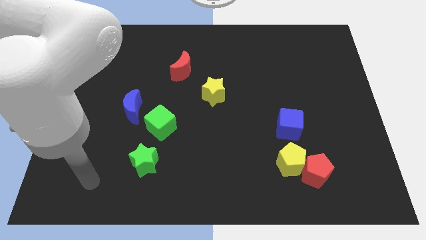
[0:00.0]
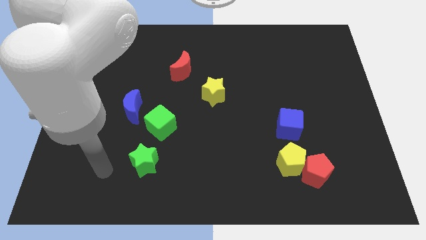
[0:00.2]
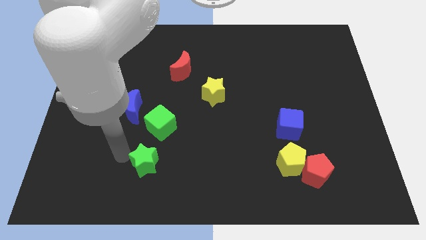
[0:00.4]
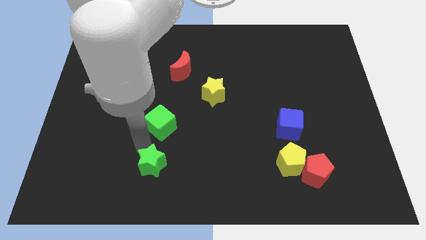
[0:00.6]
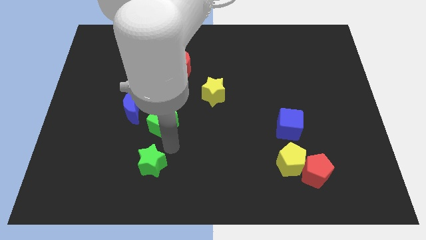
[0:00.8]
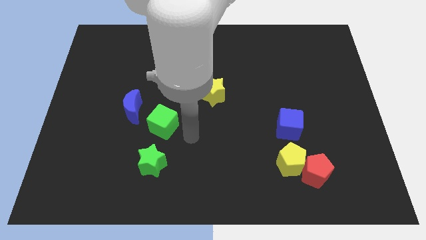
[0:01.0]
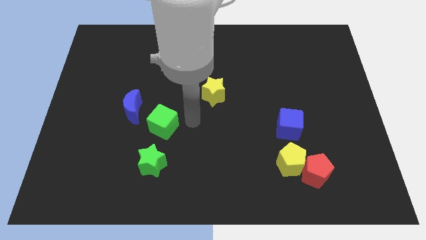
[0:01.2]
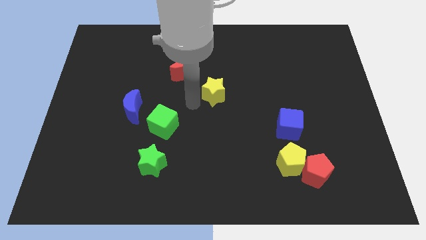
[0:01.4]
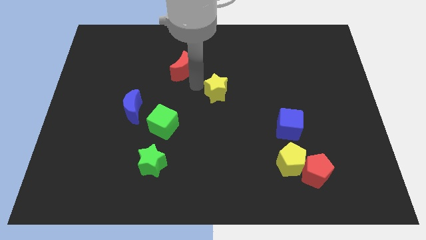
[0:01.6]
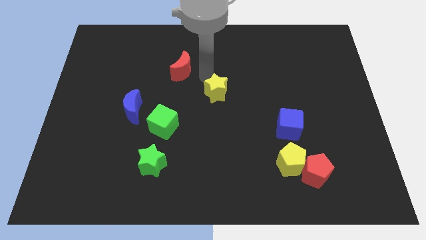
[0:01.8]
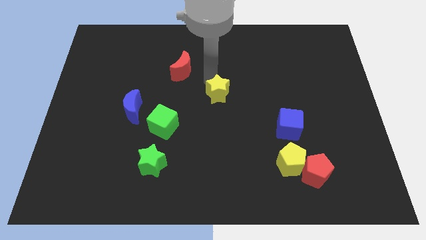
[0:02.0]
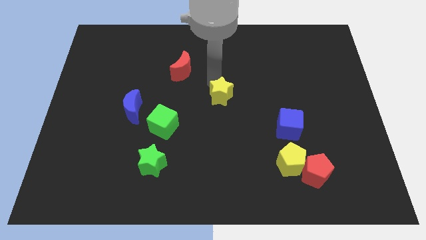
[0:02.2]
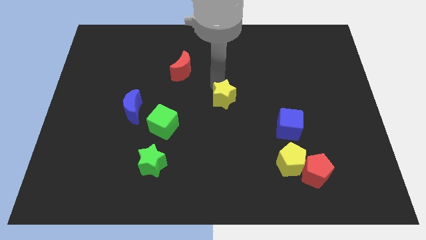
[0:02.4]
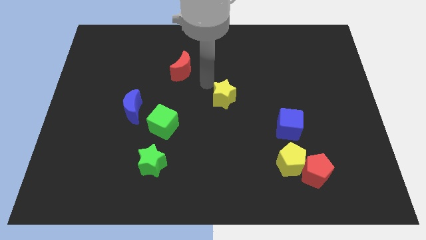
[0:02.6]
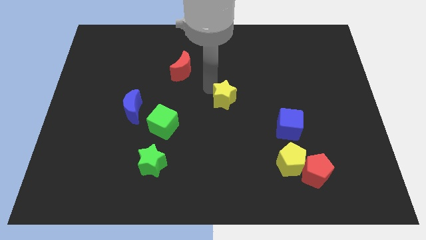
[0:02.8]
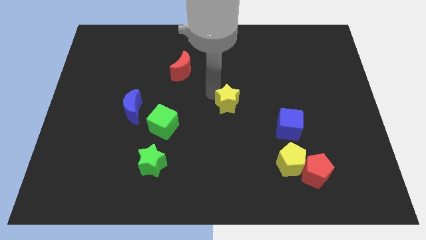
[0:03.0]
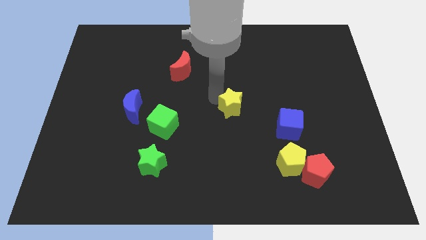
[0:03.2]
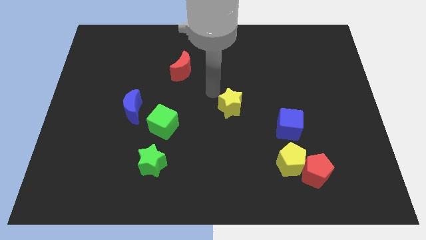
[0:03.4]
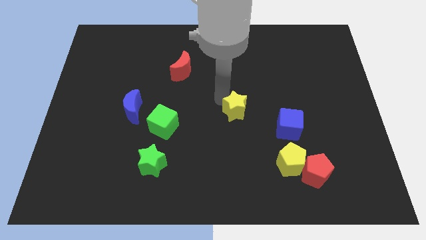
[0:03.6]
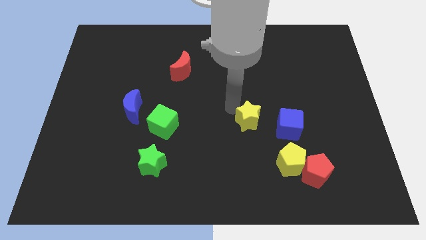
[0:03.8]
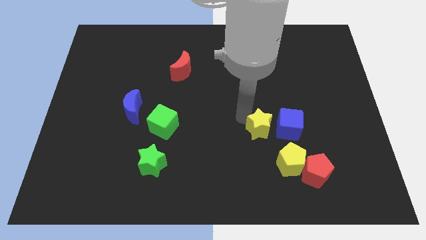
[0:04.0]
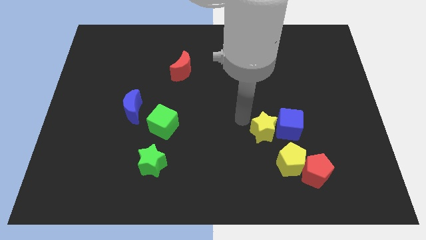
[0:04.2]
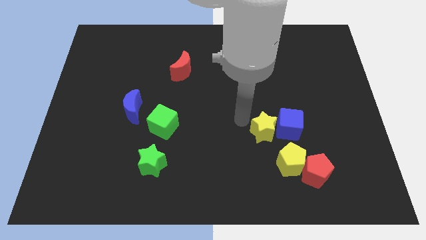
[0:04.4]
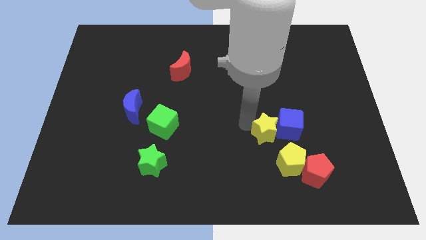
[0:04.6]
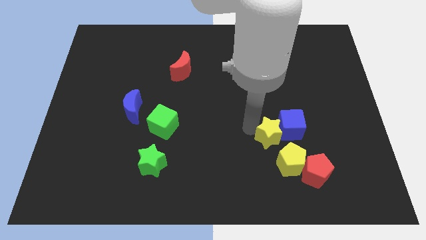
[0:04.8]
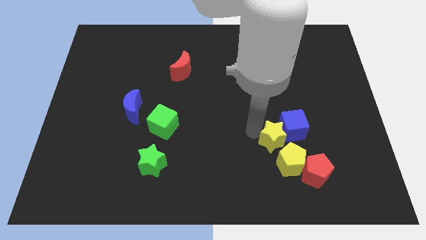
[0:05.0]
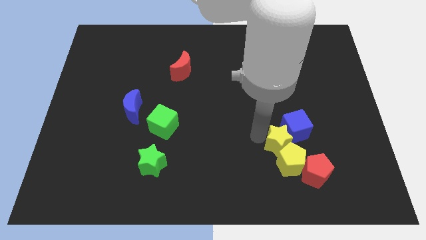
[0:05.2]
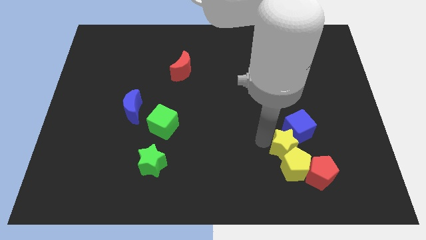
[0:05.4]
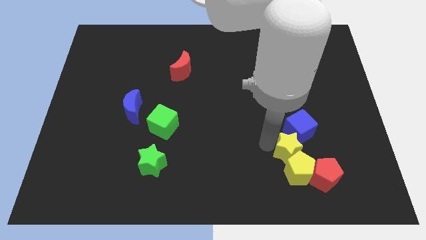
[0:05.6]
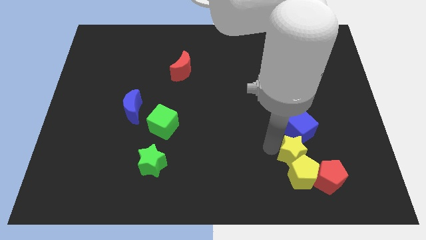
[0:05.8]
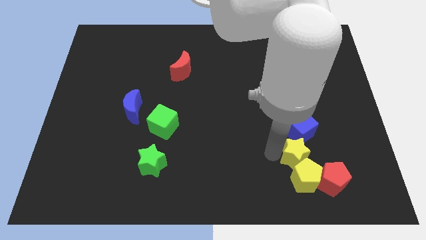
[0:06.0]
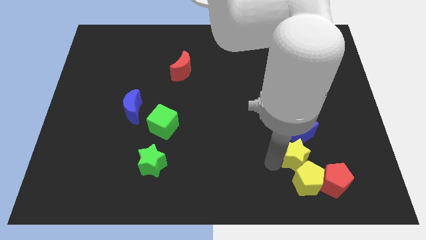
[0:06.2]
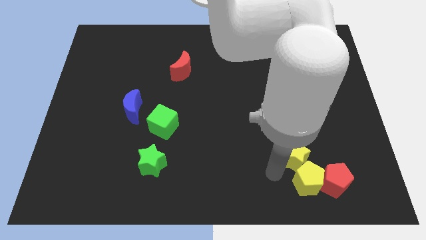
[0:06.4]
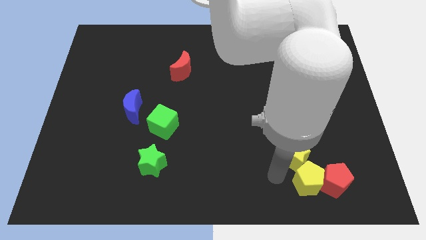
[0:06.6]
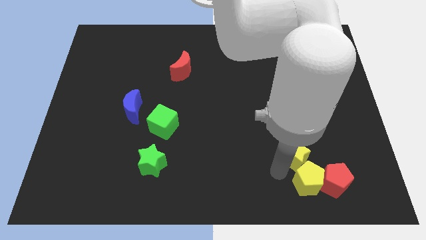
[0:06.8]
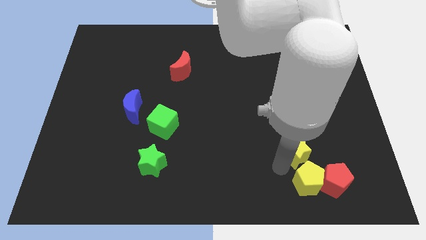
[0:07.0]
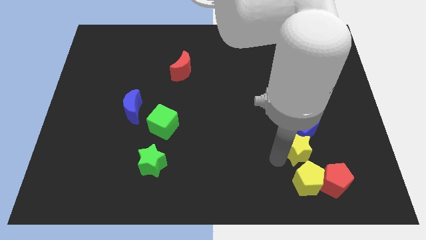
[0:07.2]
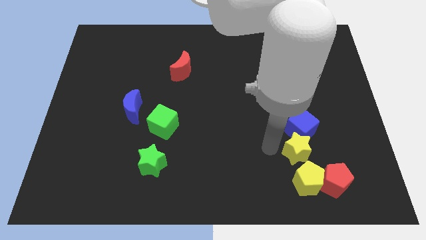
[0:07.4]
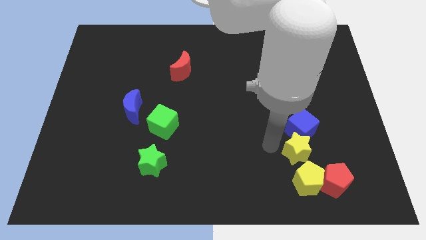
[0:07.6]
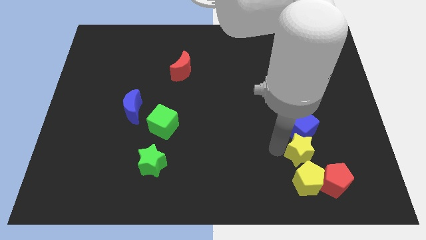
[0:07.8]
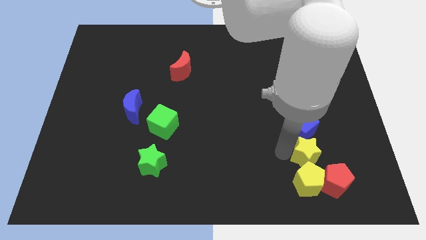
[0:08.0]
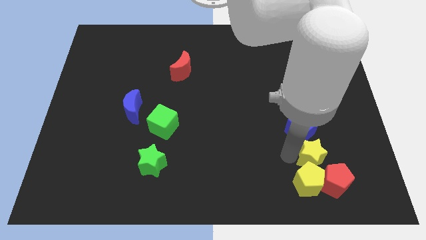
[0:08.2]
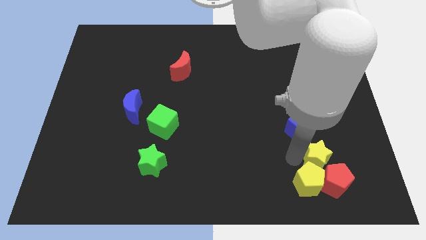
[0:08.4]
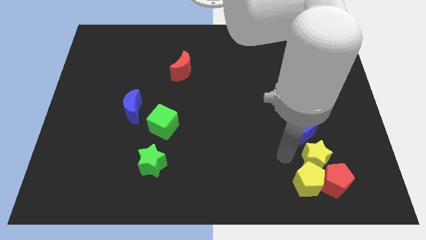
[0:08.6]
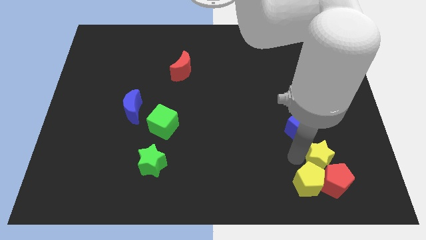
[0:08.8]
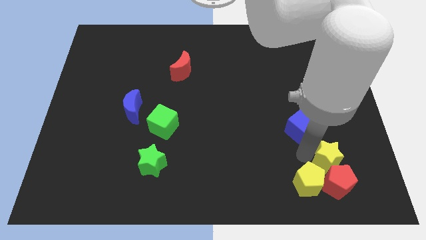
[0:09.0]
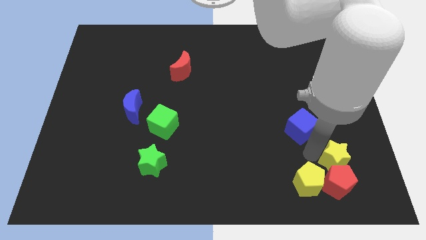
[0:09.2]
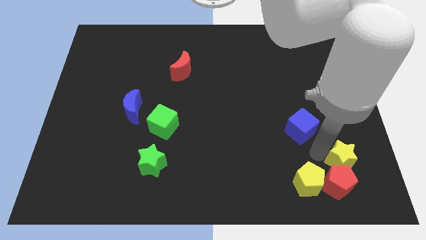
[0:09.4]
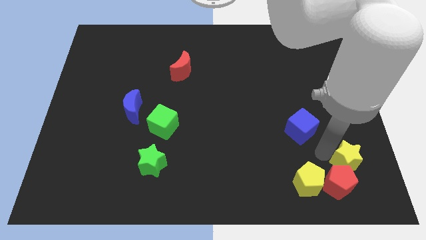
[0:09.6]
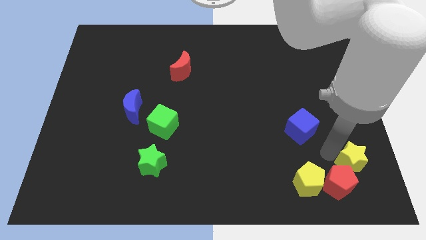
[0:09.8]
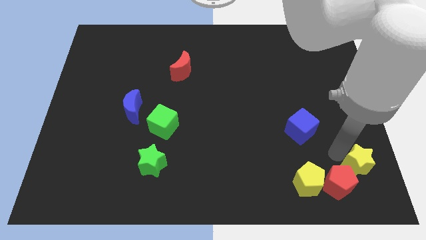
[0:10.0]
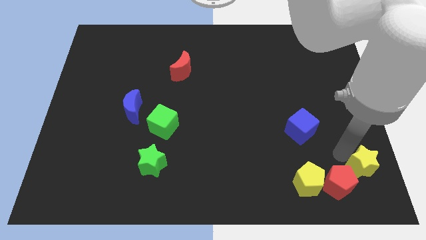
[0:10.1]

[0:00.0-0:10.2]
push the yellow star to the bottom right corner

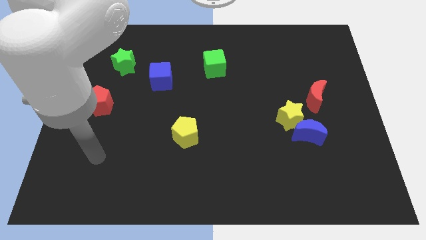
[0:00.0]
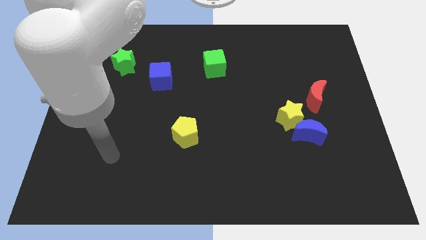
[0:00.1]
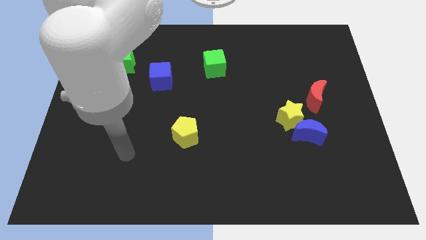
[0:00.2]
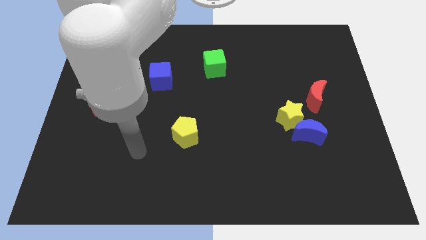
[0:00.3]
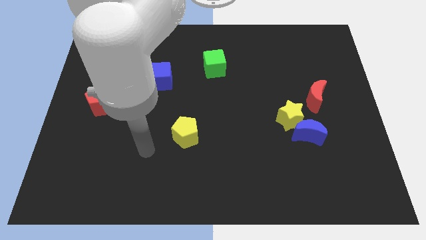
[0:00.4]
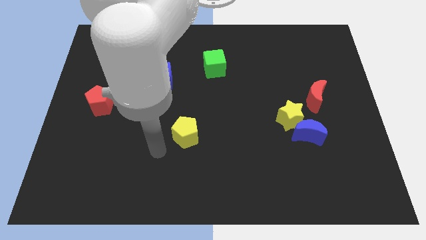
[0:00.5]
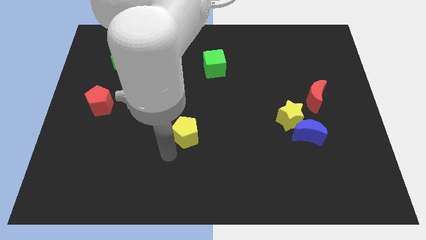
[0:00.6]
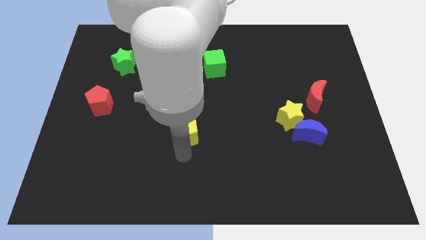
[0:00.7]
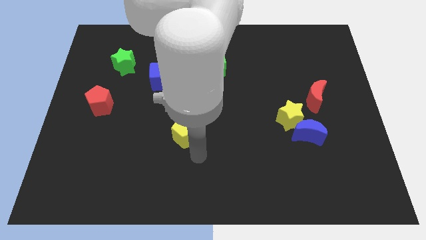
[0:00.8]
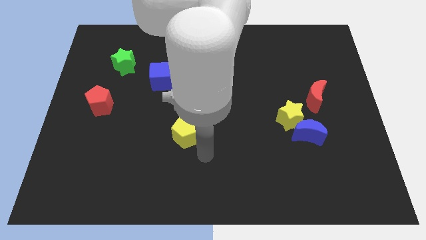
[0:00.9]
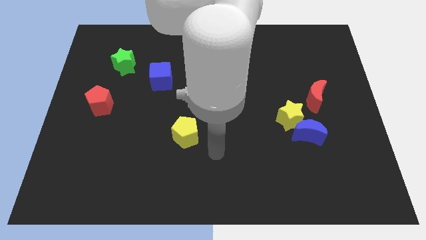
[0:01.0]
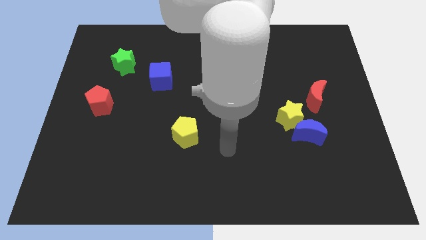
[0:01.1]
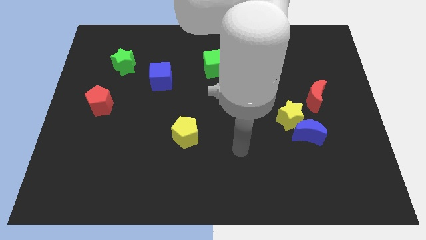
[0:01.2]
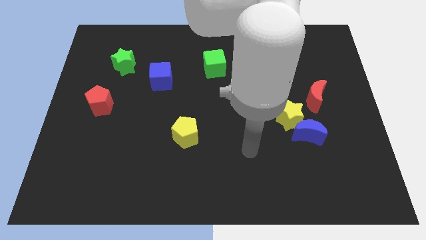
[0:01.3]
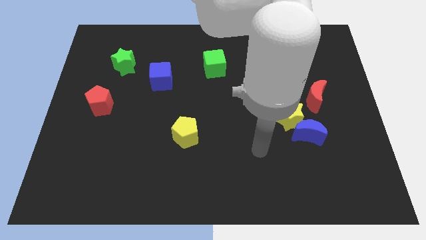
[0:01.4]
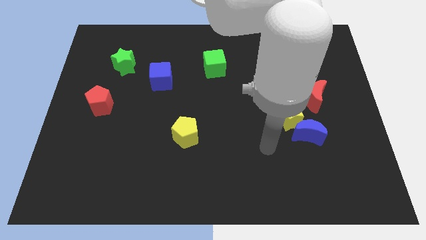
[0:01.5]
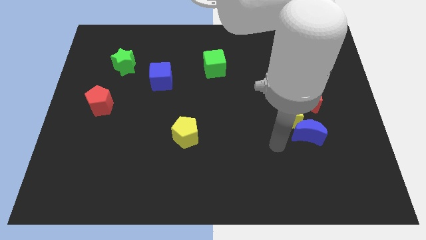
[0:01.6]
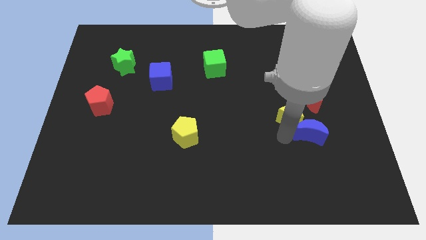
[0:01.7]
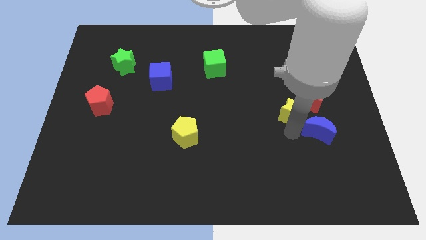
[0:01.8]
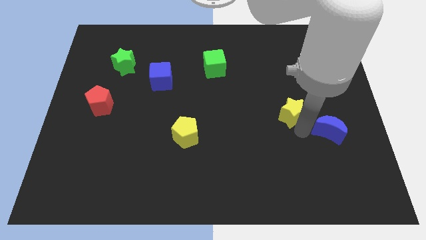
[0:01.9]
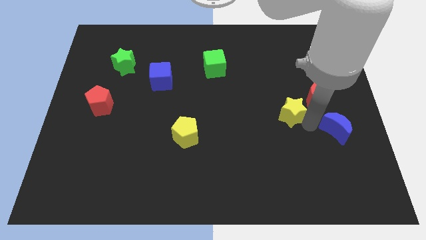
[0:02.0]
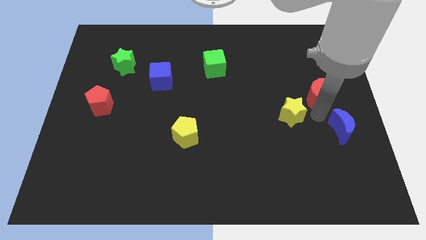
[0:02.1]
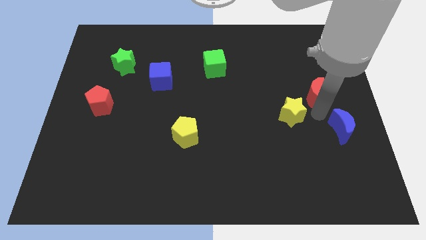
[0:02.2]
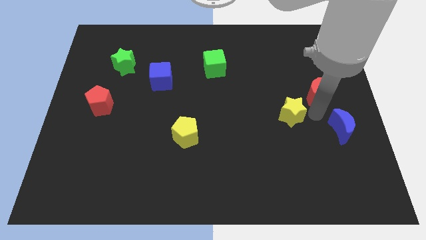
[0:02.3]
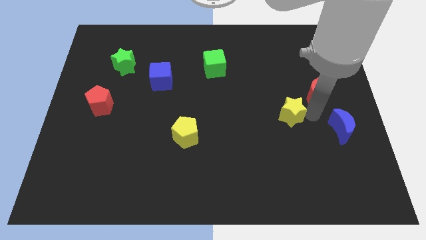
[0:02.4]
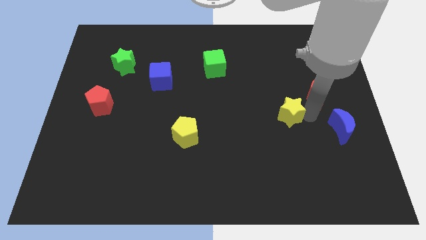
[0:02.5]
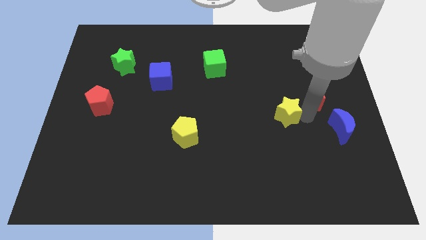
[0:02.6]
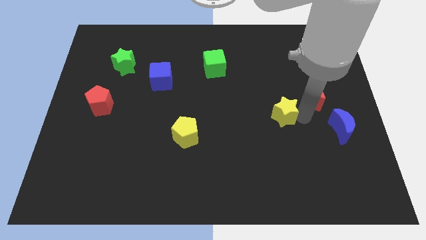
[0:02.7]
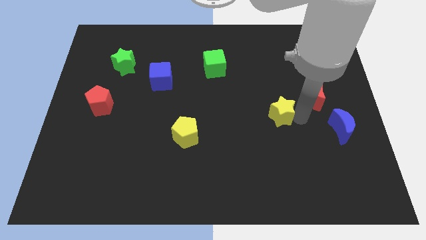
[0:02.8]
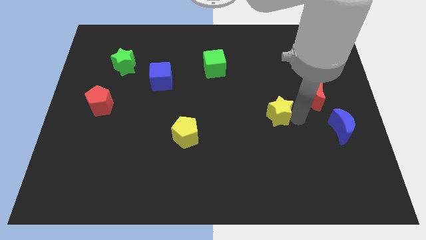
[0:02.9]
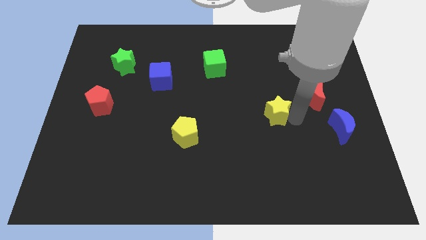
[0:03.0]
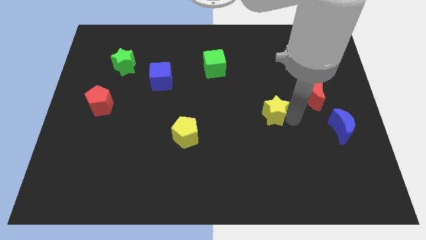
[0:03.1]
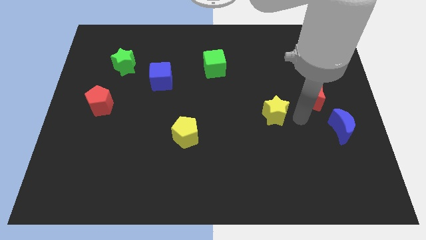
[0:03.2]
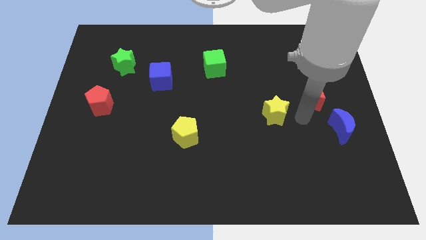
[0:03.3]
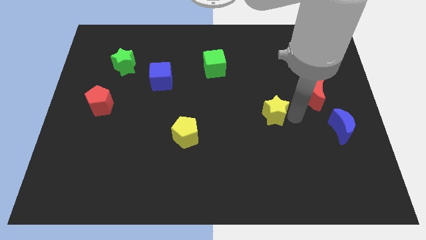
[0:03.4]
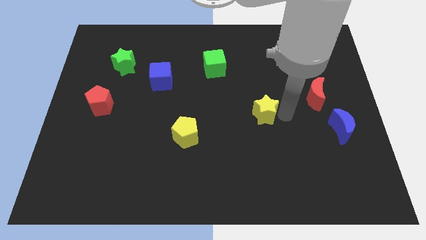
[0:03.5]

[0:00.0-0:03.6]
move the yellow star to the center
